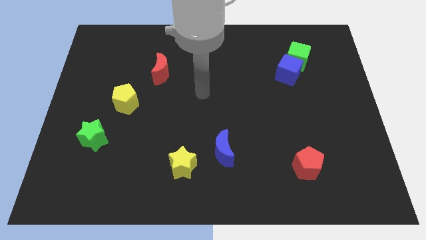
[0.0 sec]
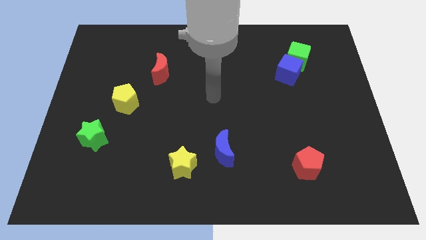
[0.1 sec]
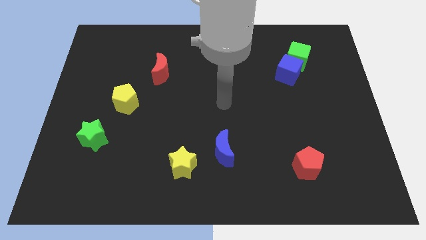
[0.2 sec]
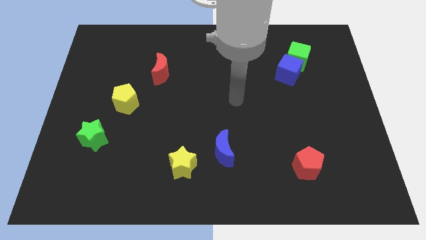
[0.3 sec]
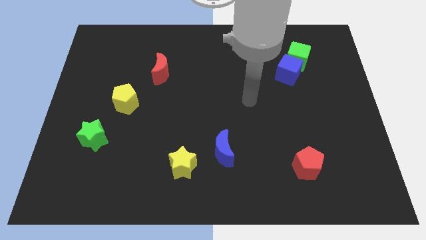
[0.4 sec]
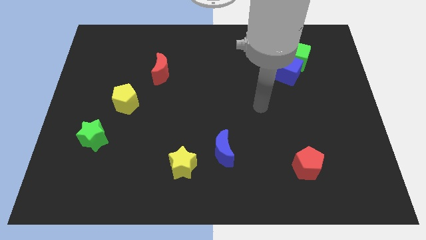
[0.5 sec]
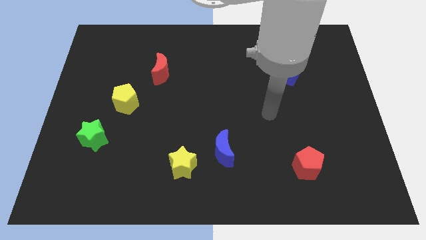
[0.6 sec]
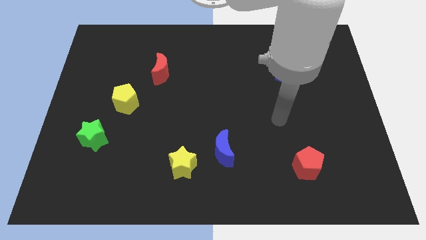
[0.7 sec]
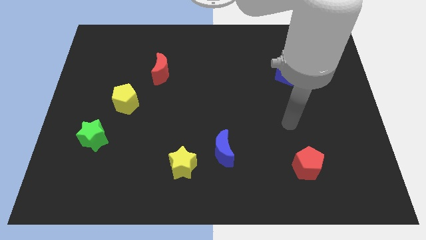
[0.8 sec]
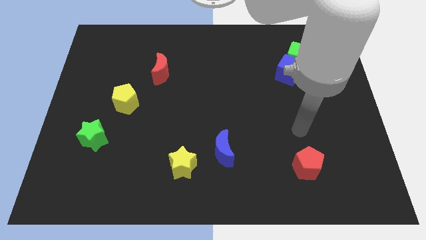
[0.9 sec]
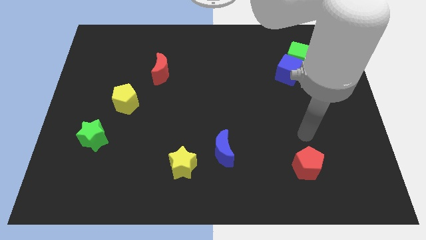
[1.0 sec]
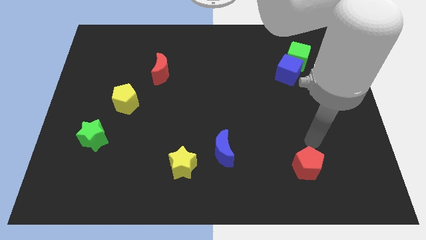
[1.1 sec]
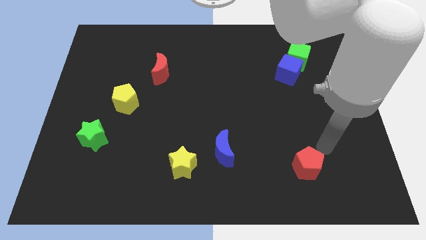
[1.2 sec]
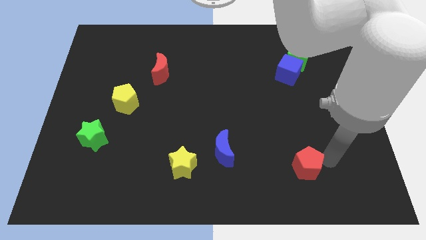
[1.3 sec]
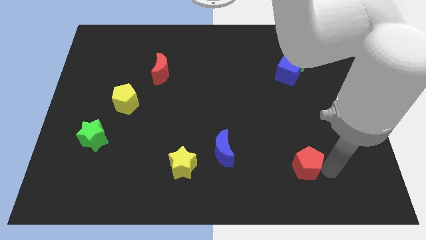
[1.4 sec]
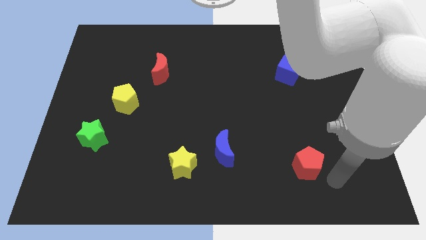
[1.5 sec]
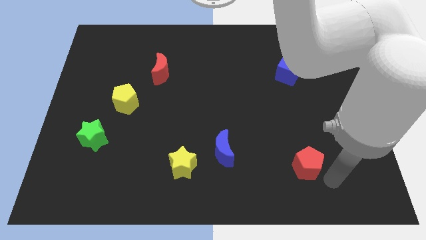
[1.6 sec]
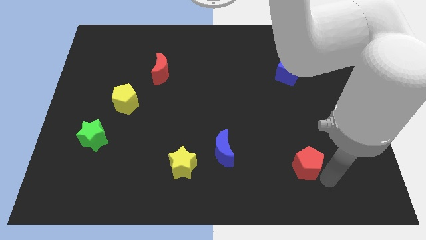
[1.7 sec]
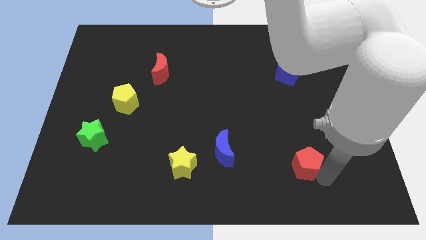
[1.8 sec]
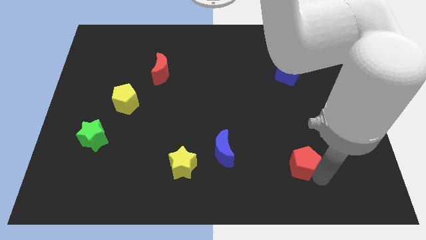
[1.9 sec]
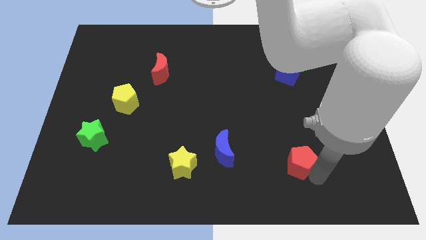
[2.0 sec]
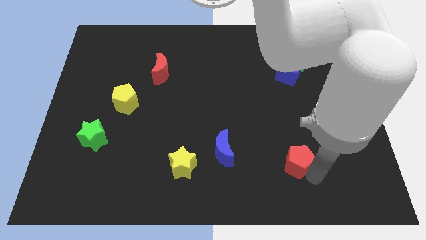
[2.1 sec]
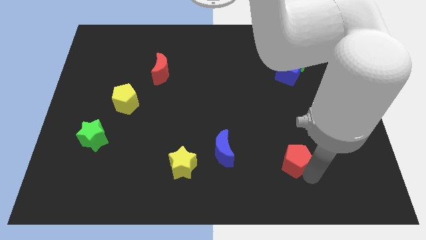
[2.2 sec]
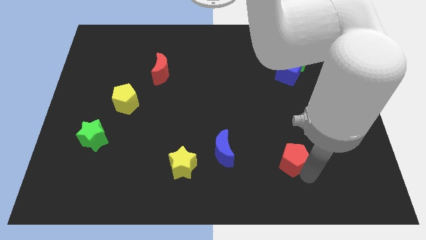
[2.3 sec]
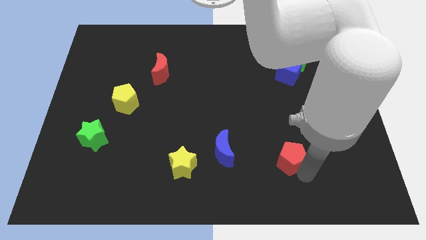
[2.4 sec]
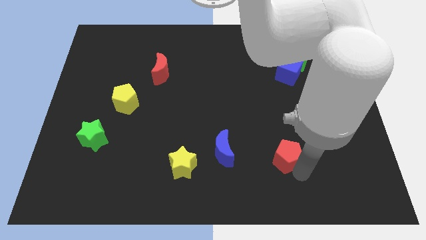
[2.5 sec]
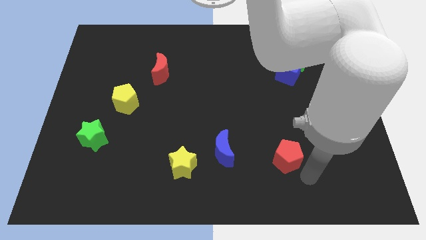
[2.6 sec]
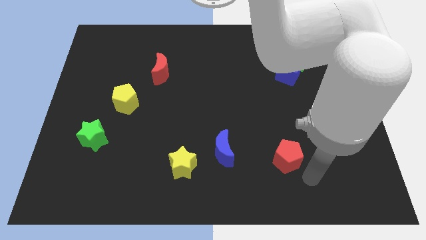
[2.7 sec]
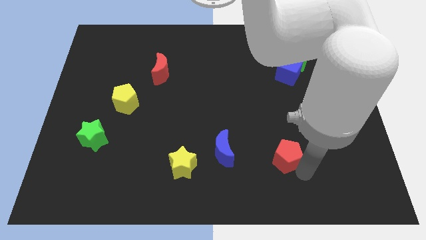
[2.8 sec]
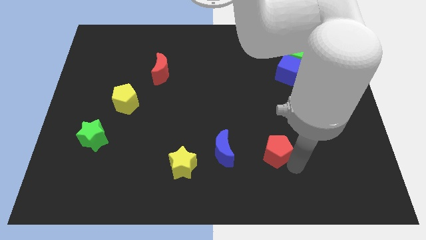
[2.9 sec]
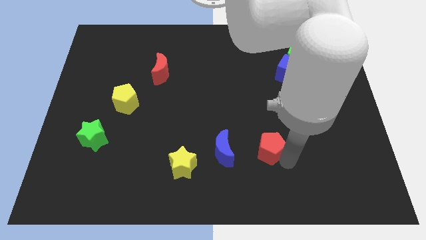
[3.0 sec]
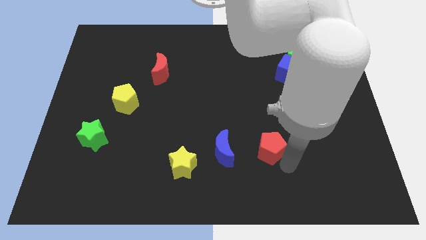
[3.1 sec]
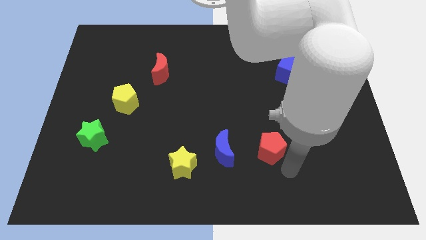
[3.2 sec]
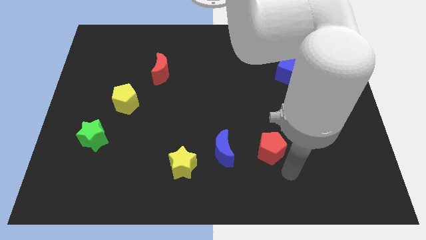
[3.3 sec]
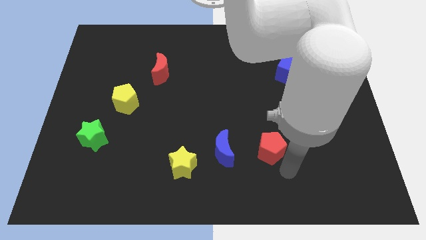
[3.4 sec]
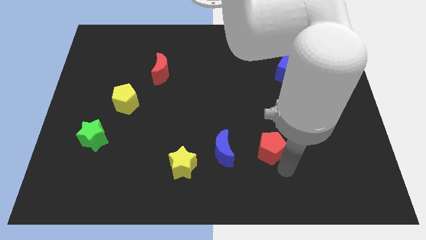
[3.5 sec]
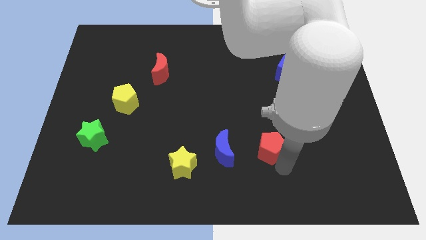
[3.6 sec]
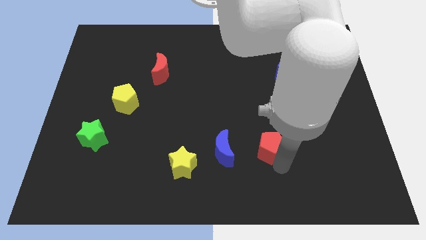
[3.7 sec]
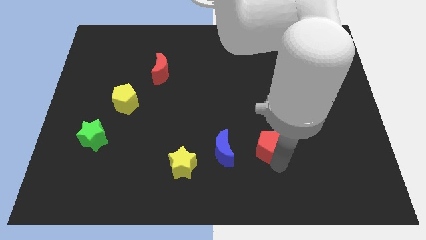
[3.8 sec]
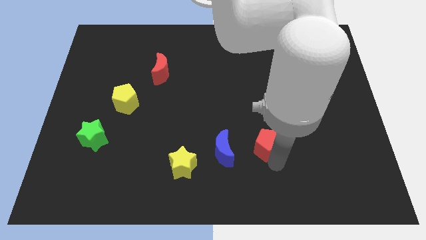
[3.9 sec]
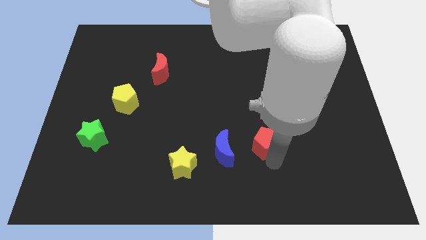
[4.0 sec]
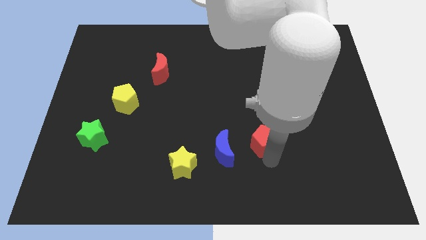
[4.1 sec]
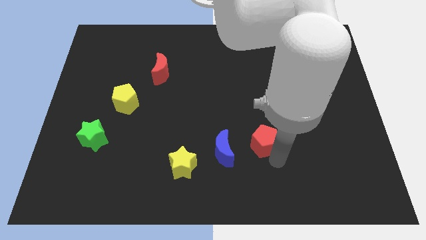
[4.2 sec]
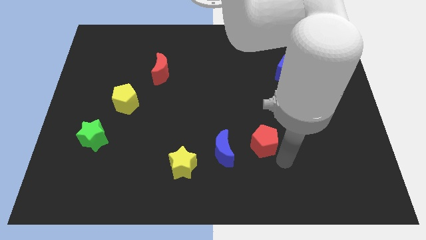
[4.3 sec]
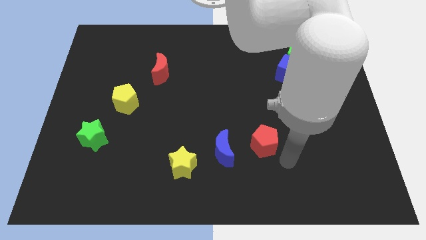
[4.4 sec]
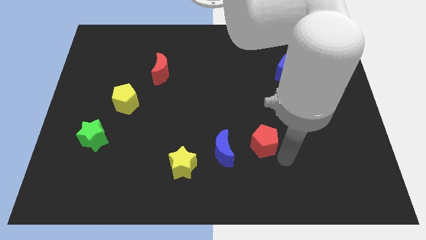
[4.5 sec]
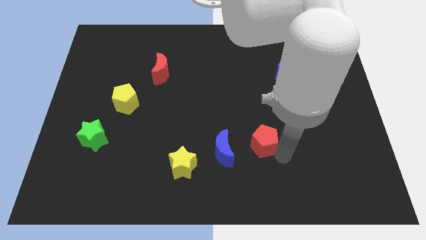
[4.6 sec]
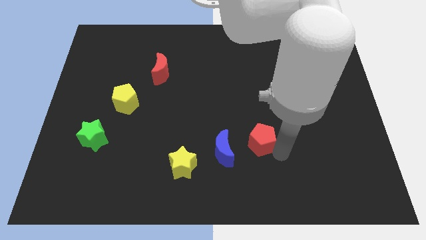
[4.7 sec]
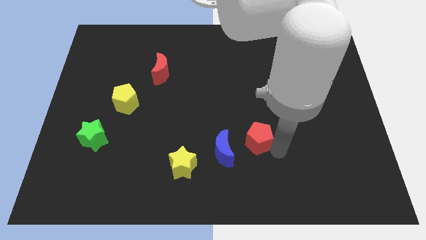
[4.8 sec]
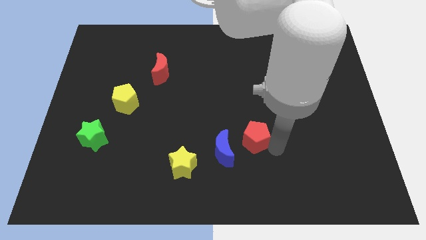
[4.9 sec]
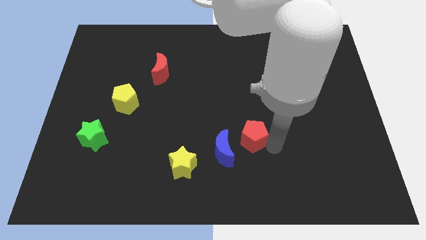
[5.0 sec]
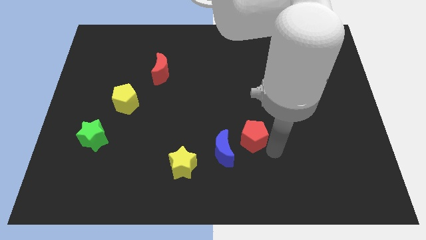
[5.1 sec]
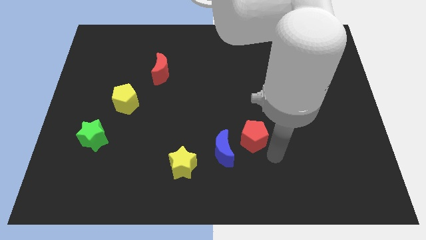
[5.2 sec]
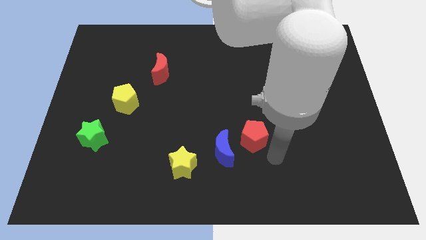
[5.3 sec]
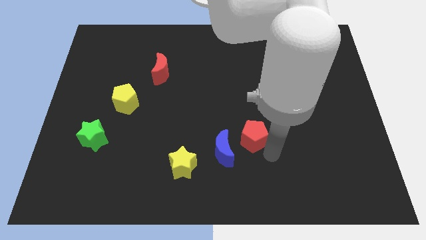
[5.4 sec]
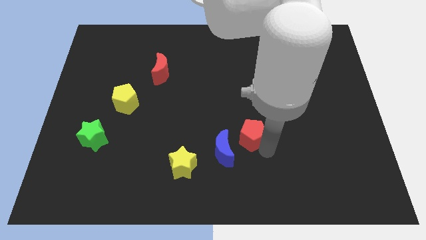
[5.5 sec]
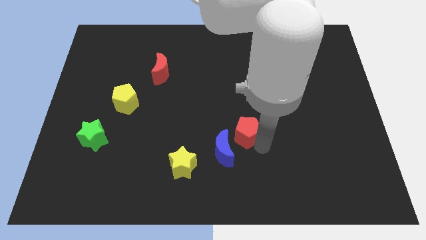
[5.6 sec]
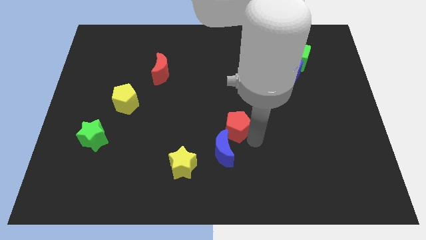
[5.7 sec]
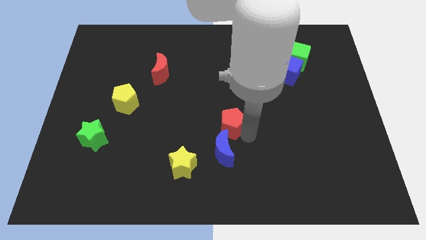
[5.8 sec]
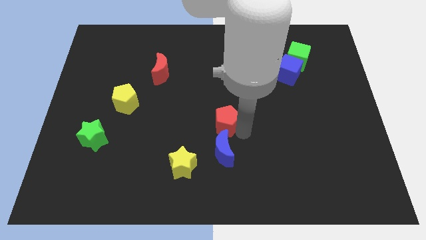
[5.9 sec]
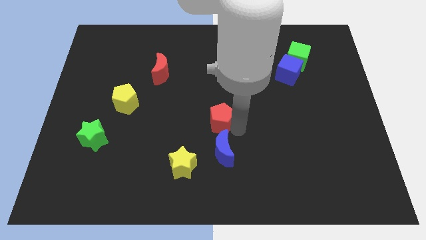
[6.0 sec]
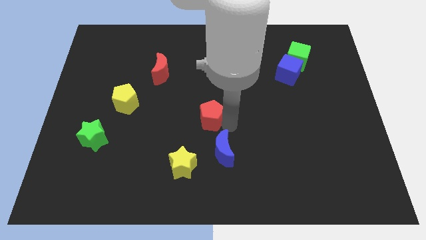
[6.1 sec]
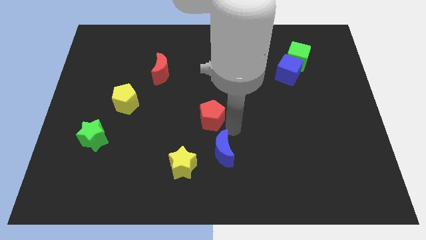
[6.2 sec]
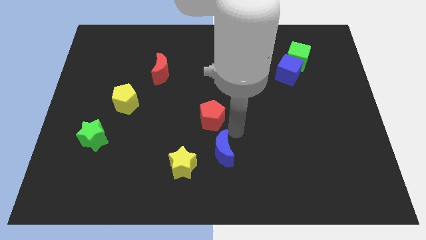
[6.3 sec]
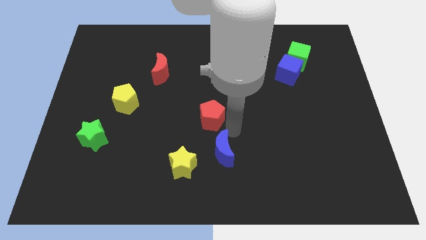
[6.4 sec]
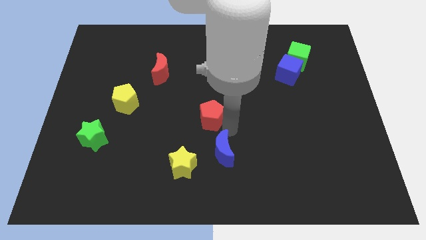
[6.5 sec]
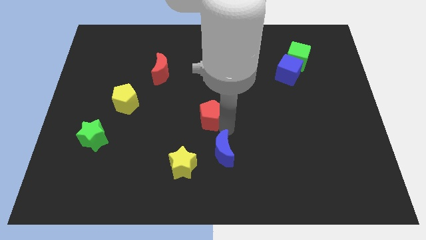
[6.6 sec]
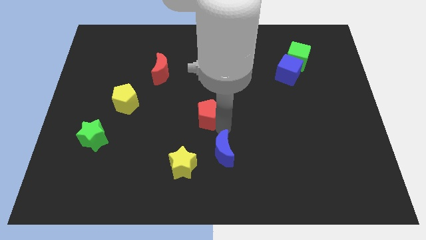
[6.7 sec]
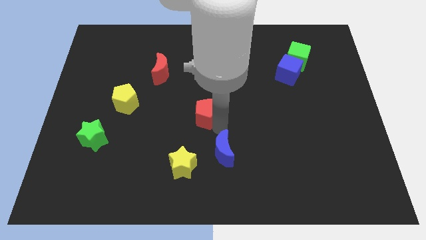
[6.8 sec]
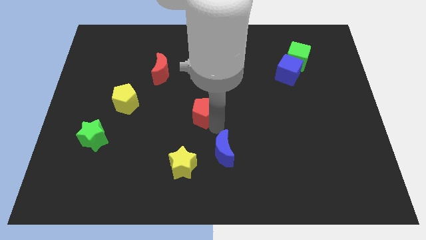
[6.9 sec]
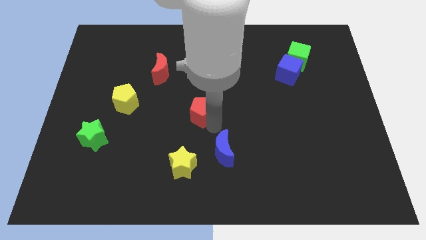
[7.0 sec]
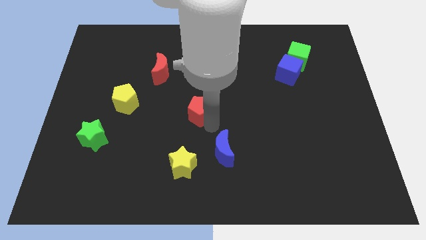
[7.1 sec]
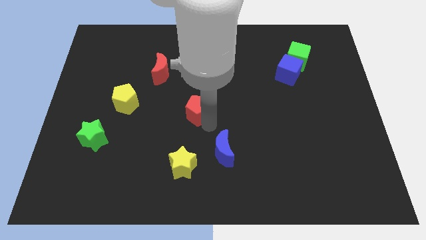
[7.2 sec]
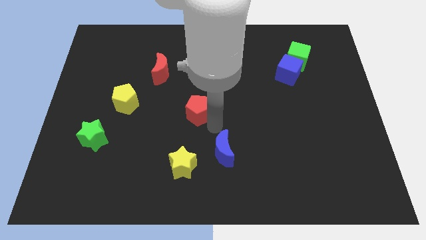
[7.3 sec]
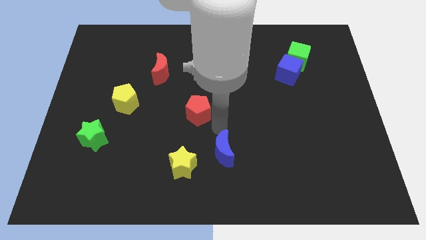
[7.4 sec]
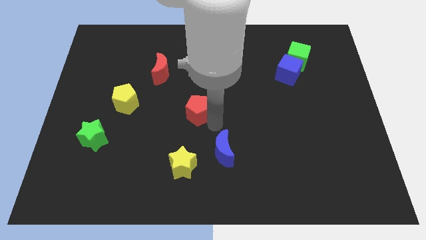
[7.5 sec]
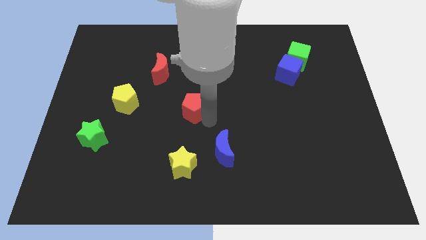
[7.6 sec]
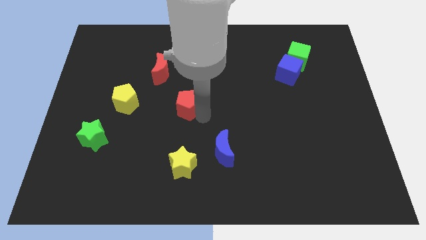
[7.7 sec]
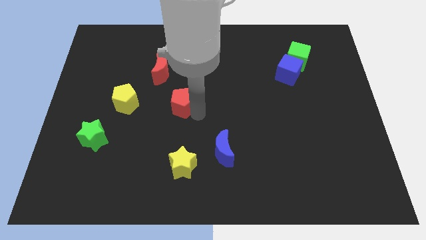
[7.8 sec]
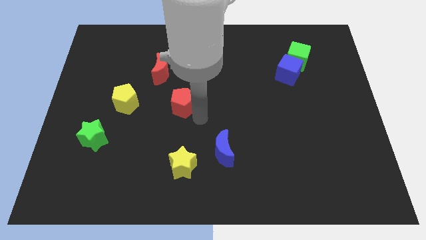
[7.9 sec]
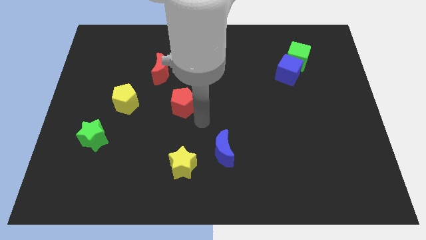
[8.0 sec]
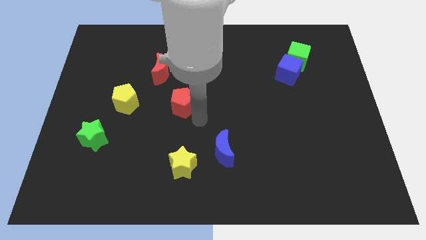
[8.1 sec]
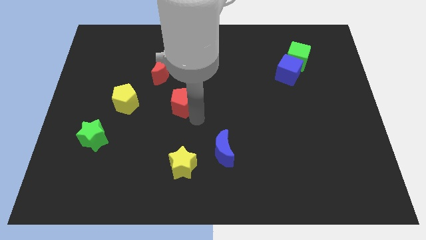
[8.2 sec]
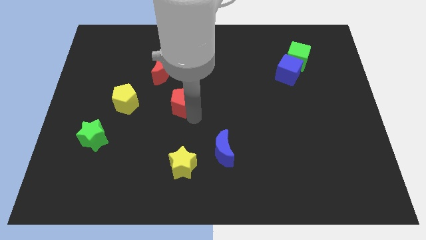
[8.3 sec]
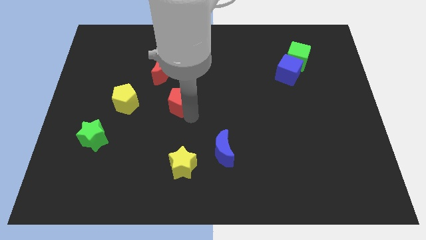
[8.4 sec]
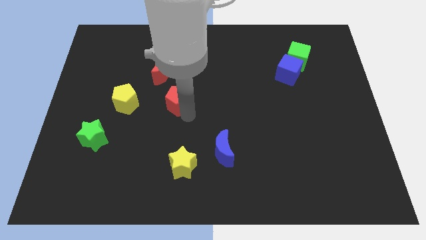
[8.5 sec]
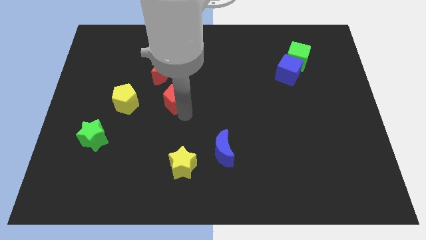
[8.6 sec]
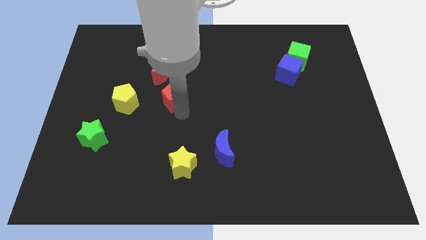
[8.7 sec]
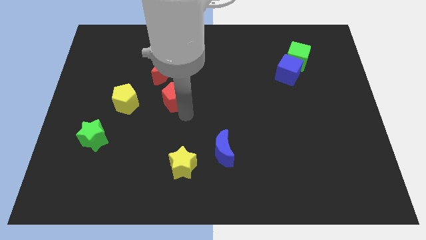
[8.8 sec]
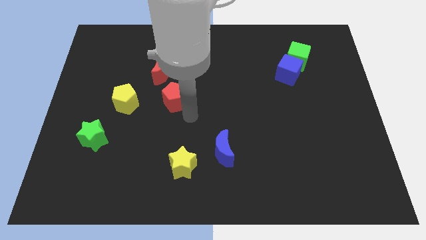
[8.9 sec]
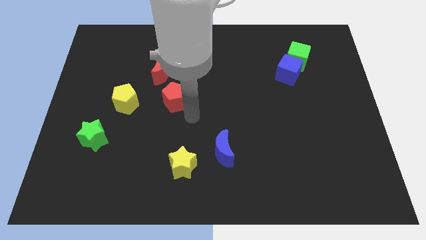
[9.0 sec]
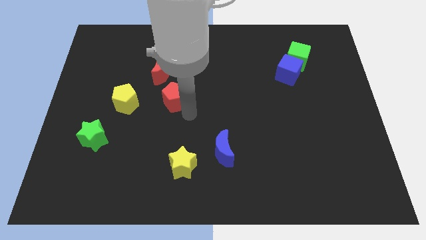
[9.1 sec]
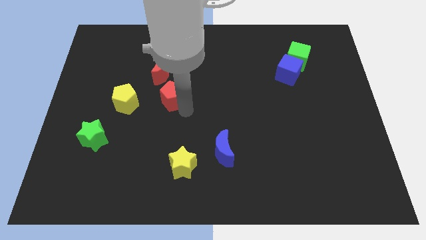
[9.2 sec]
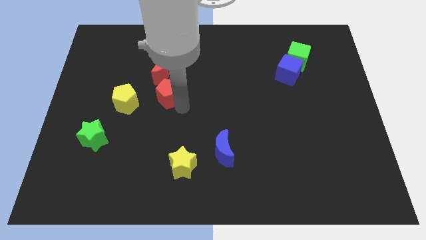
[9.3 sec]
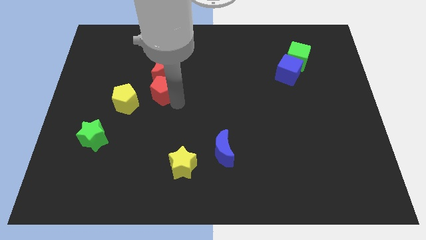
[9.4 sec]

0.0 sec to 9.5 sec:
put the red pentagon diagonally up and to the right of the yellow pentagon
